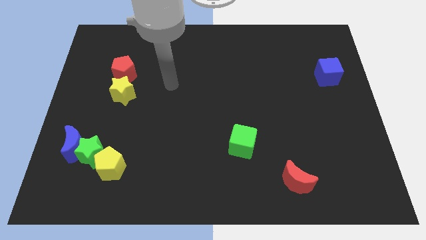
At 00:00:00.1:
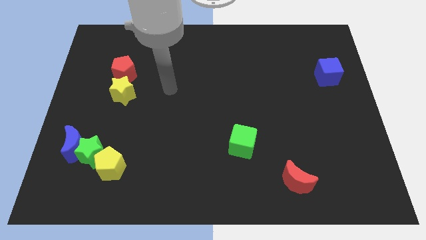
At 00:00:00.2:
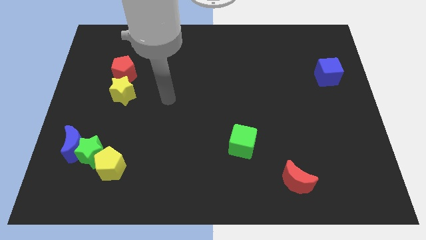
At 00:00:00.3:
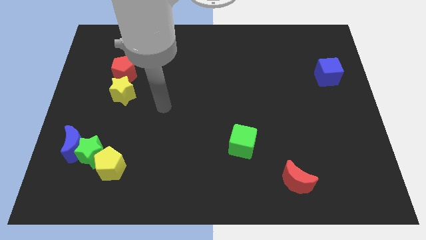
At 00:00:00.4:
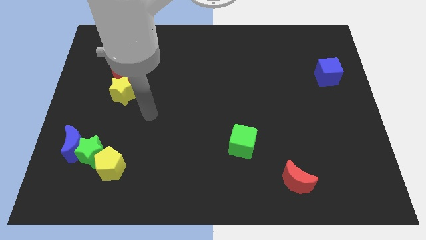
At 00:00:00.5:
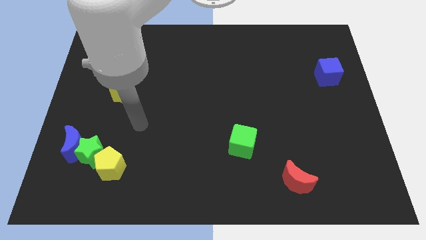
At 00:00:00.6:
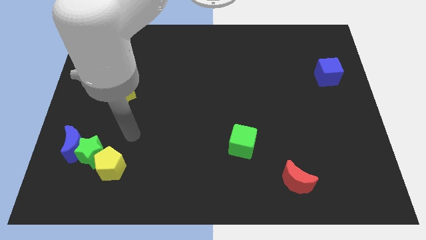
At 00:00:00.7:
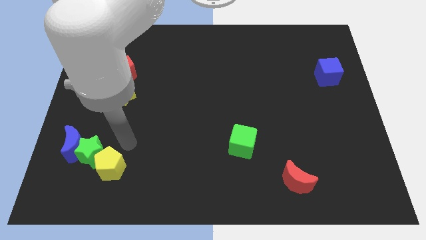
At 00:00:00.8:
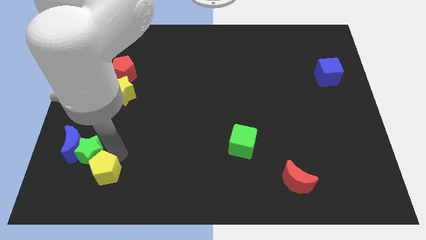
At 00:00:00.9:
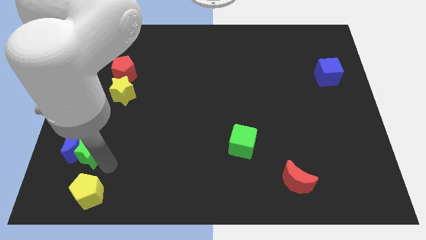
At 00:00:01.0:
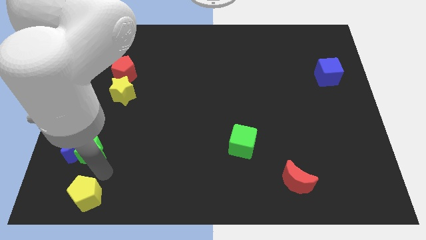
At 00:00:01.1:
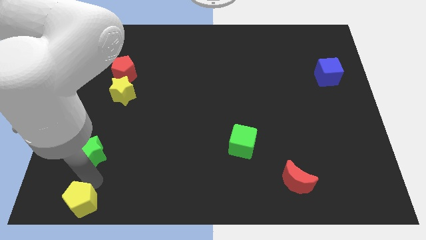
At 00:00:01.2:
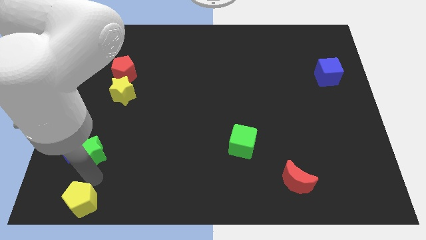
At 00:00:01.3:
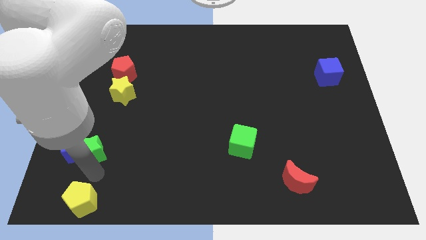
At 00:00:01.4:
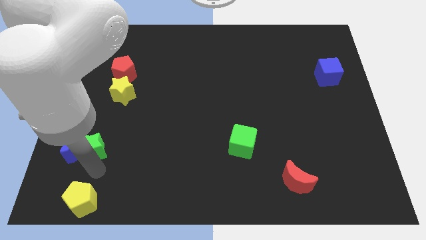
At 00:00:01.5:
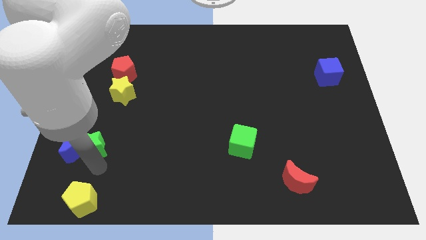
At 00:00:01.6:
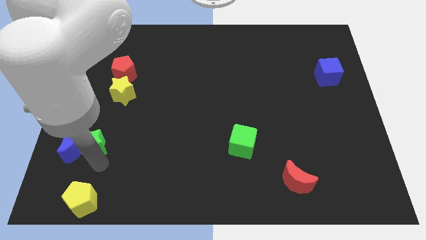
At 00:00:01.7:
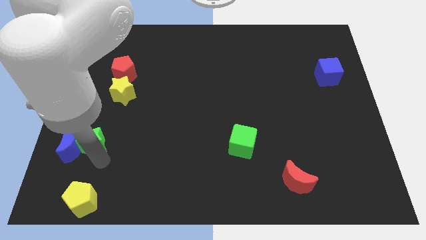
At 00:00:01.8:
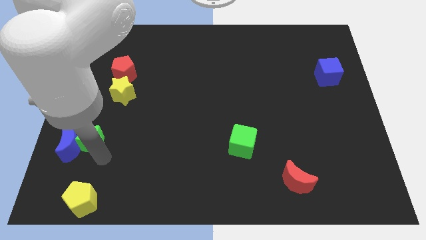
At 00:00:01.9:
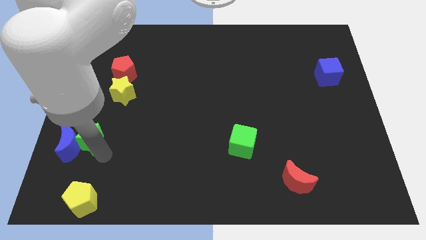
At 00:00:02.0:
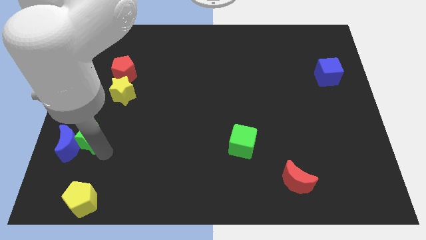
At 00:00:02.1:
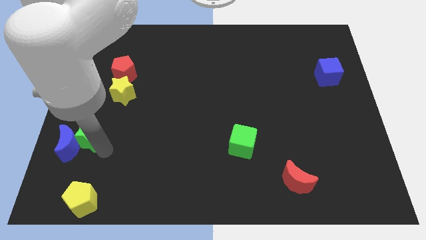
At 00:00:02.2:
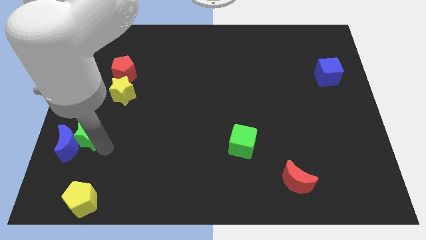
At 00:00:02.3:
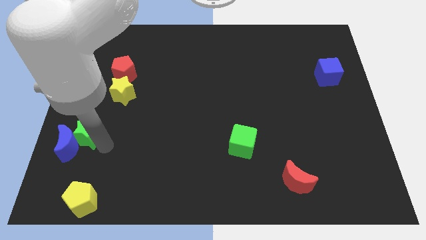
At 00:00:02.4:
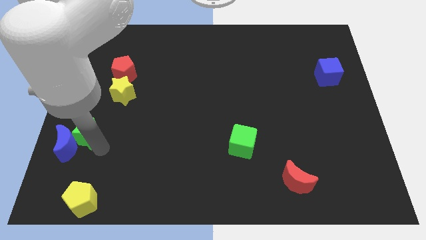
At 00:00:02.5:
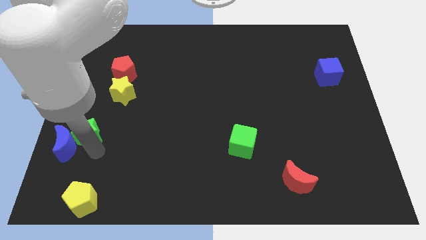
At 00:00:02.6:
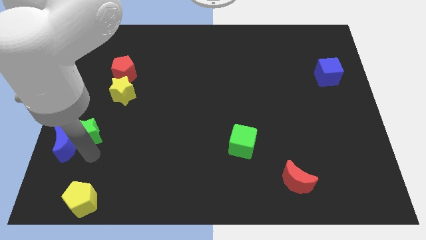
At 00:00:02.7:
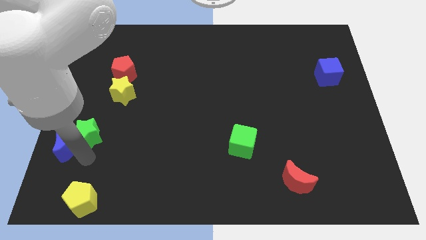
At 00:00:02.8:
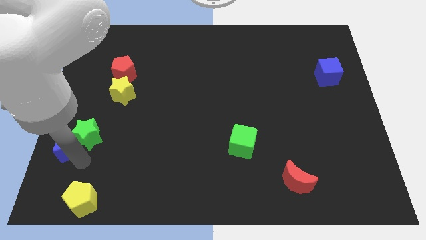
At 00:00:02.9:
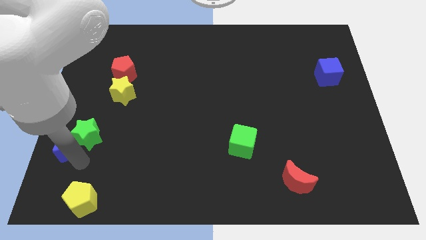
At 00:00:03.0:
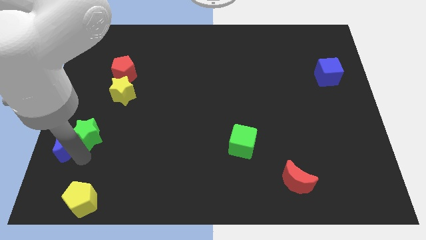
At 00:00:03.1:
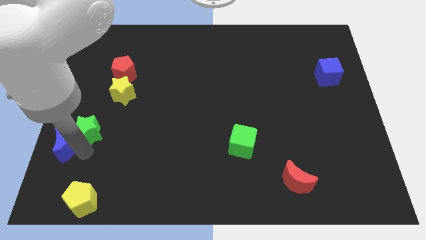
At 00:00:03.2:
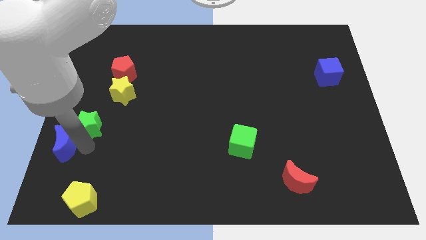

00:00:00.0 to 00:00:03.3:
pull the green star apart from the blue moon and yellow pentagon

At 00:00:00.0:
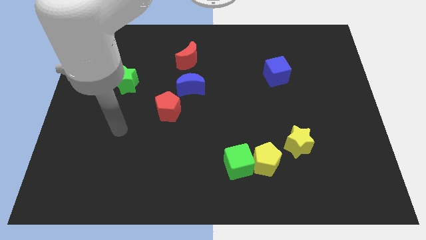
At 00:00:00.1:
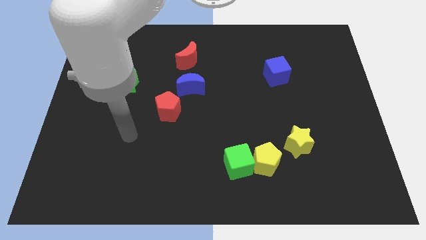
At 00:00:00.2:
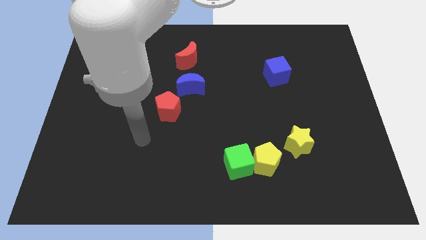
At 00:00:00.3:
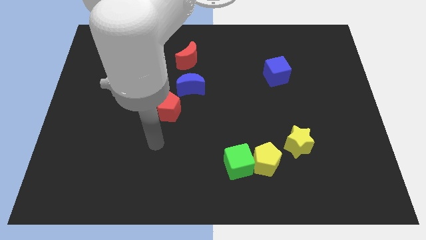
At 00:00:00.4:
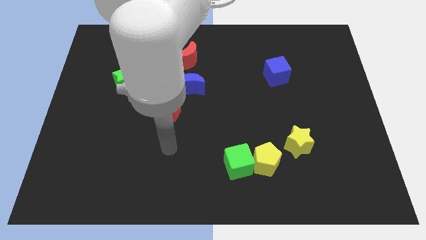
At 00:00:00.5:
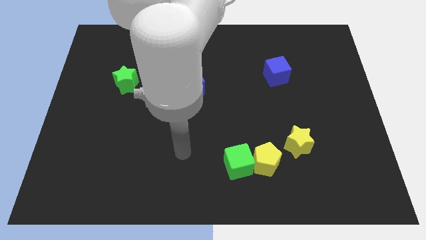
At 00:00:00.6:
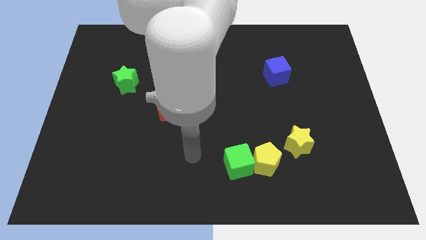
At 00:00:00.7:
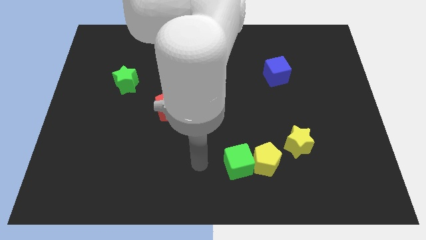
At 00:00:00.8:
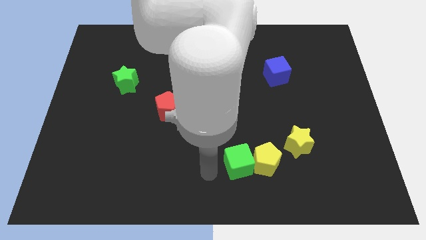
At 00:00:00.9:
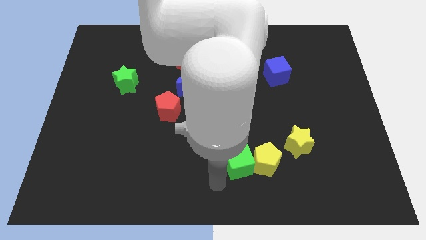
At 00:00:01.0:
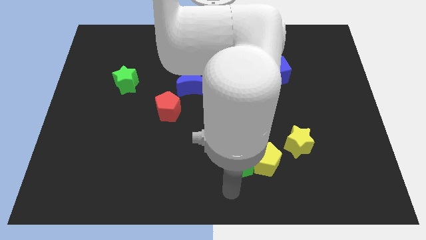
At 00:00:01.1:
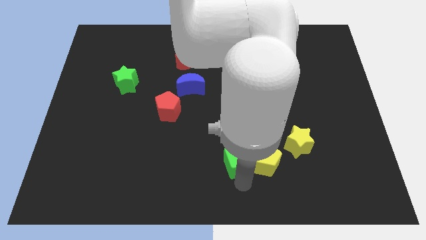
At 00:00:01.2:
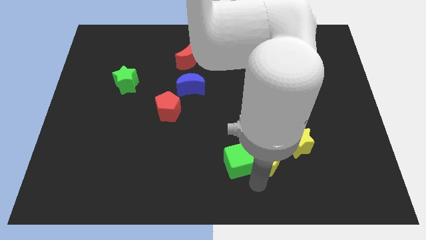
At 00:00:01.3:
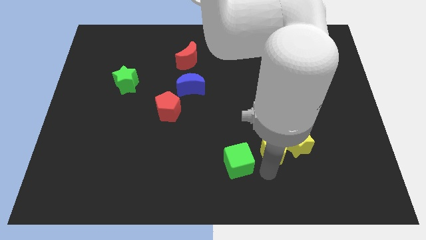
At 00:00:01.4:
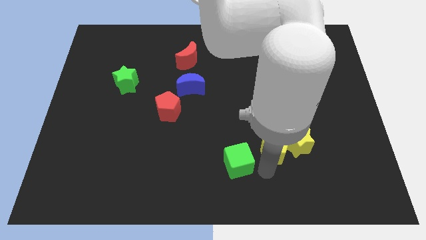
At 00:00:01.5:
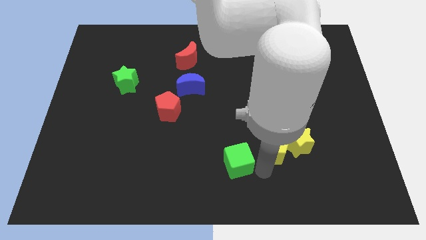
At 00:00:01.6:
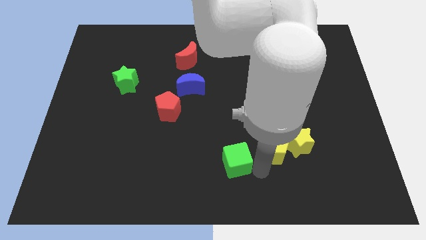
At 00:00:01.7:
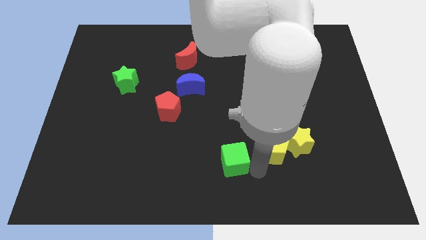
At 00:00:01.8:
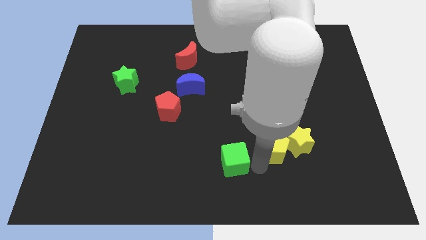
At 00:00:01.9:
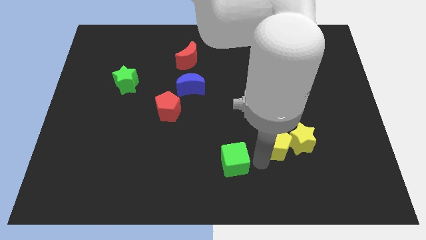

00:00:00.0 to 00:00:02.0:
pull the green cube apart from the yellow pentagon

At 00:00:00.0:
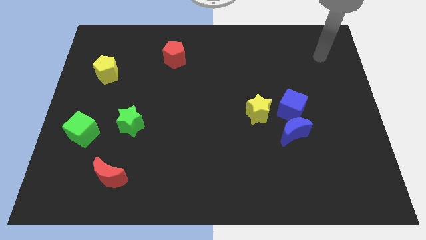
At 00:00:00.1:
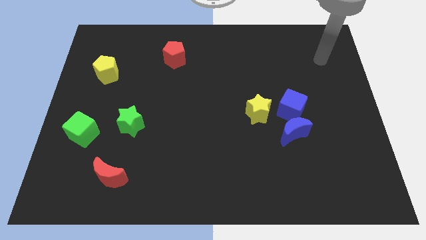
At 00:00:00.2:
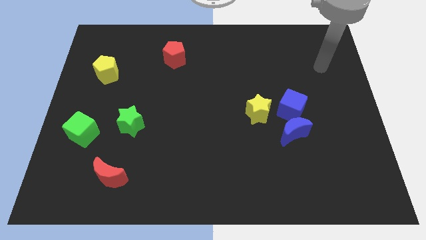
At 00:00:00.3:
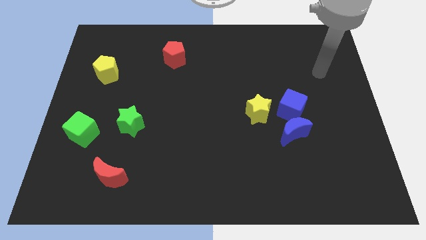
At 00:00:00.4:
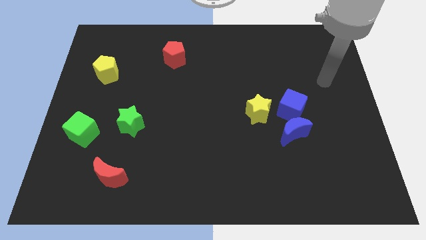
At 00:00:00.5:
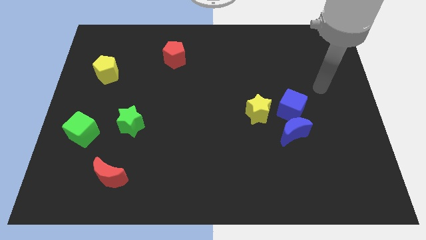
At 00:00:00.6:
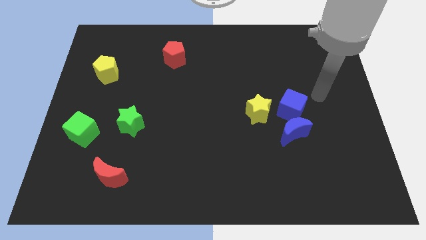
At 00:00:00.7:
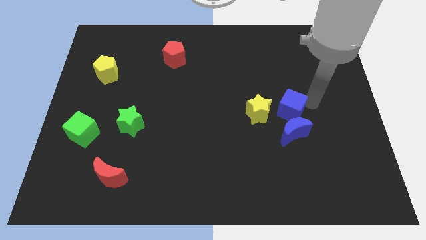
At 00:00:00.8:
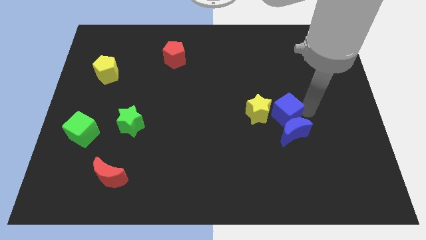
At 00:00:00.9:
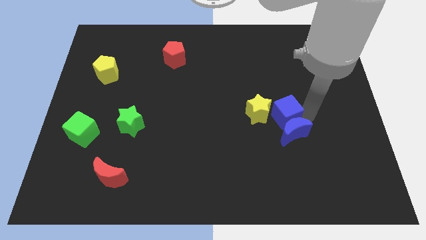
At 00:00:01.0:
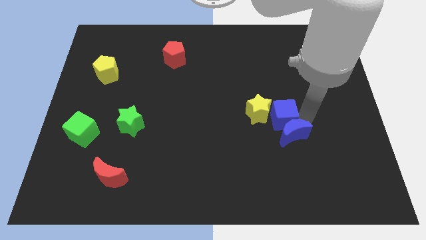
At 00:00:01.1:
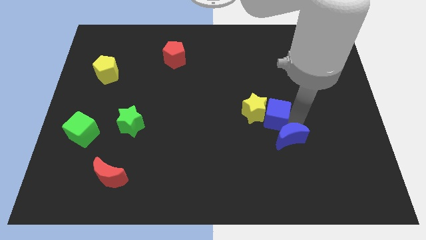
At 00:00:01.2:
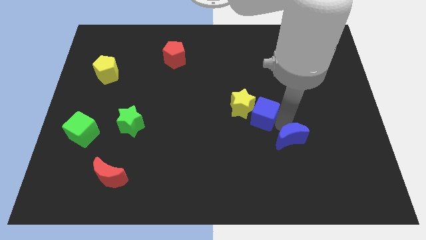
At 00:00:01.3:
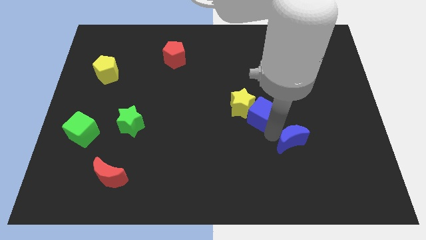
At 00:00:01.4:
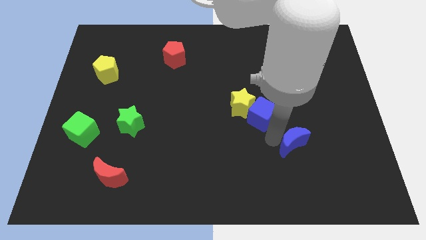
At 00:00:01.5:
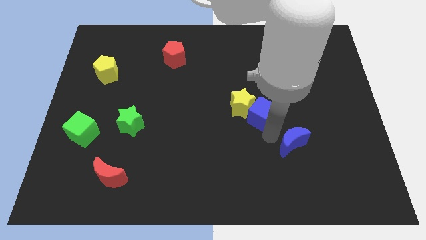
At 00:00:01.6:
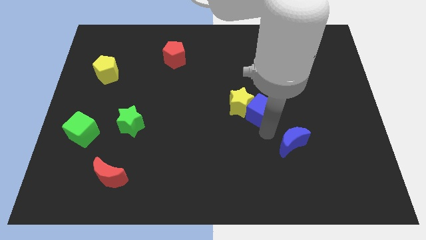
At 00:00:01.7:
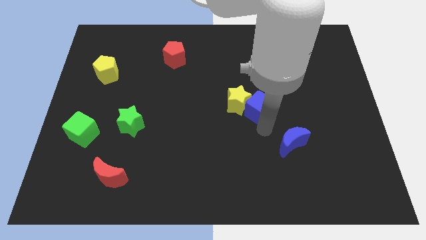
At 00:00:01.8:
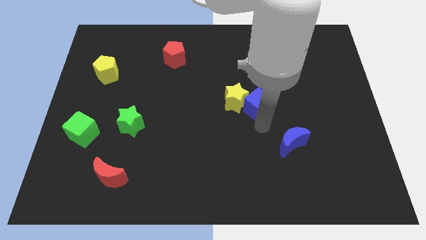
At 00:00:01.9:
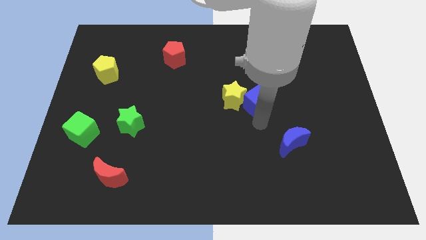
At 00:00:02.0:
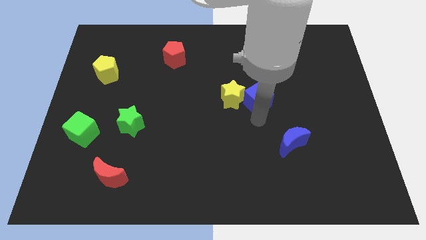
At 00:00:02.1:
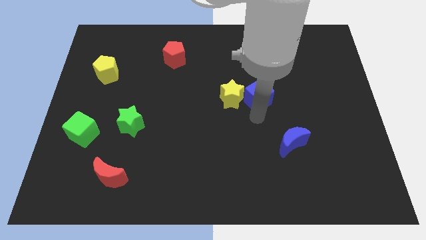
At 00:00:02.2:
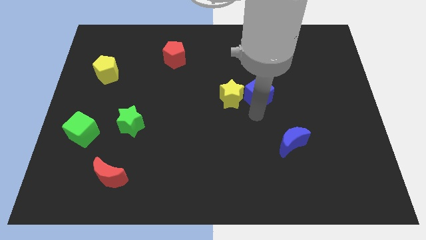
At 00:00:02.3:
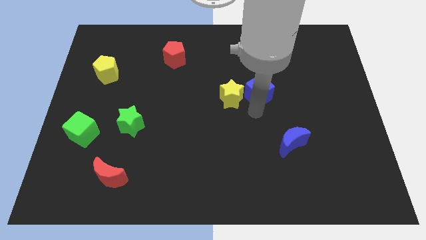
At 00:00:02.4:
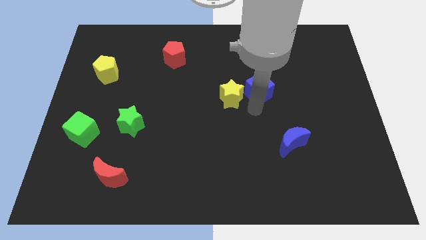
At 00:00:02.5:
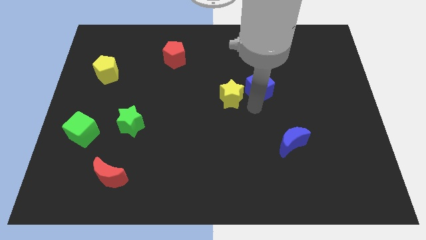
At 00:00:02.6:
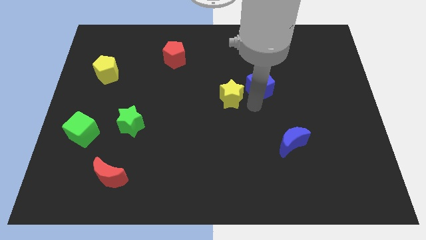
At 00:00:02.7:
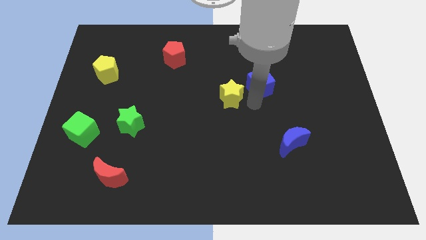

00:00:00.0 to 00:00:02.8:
move the blue cube away from the blue moon and yellow star

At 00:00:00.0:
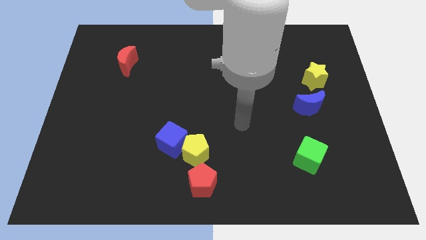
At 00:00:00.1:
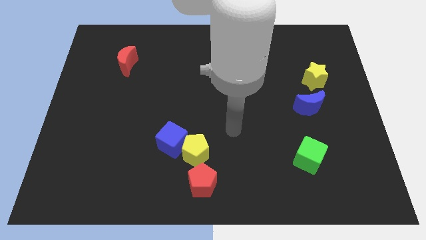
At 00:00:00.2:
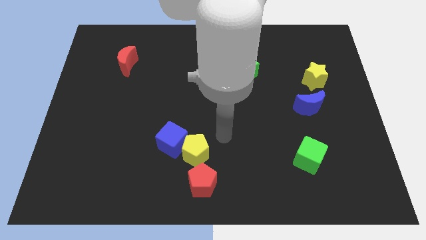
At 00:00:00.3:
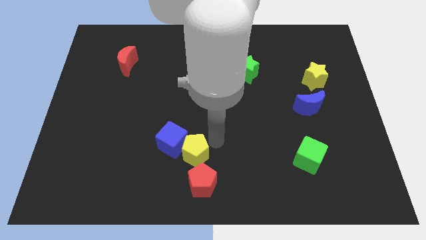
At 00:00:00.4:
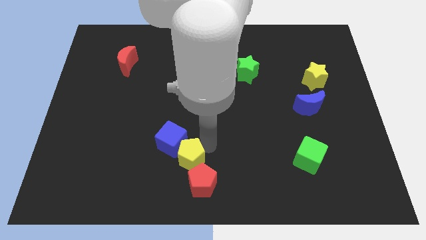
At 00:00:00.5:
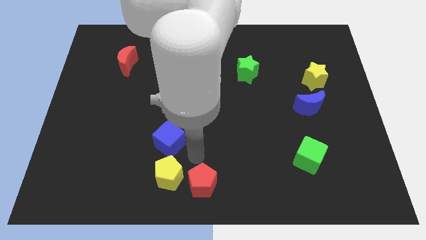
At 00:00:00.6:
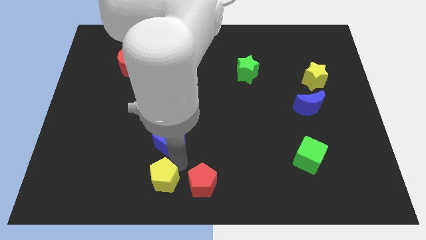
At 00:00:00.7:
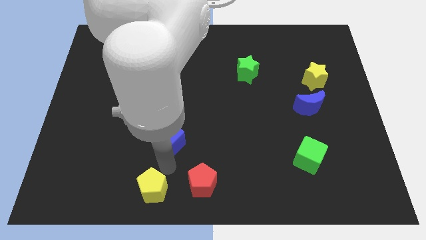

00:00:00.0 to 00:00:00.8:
separate the blue cube from the yellow pentagon

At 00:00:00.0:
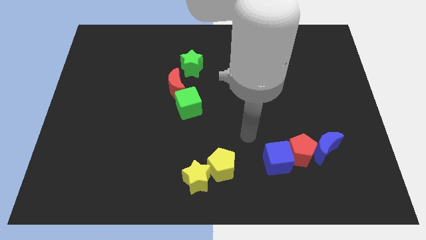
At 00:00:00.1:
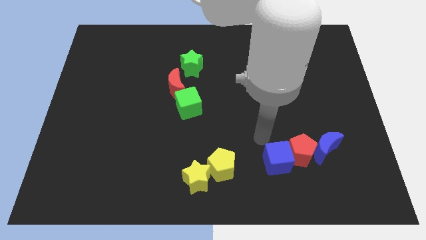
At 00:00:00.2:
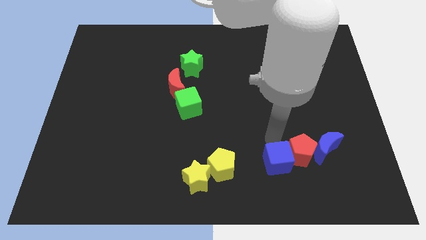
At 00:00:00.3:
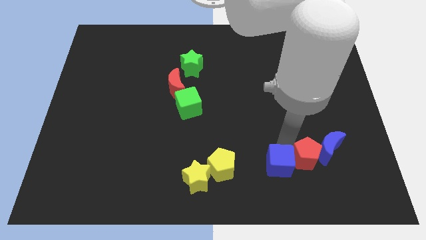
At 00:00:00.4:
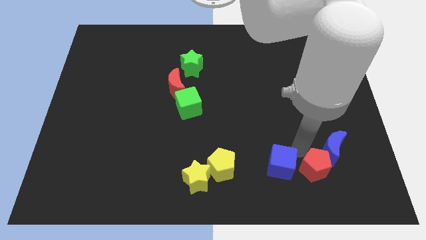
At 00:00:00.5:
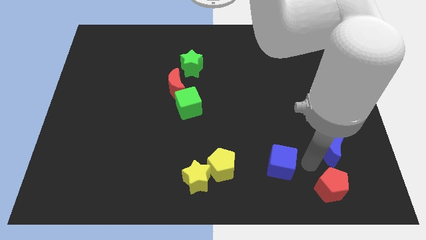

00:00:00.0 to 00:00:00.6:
move the blue cube away from the red pentagon
